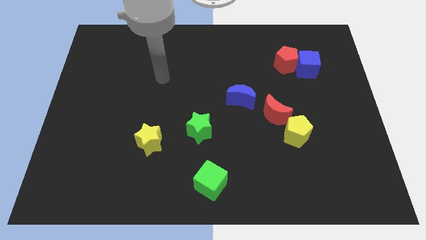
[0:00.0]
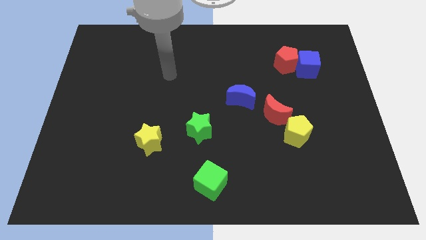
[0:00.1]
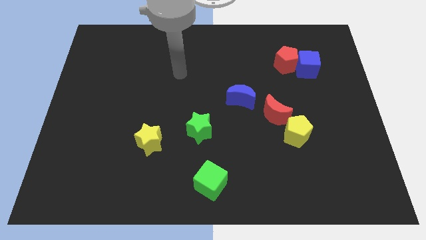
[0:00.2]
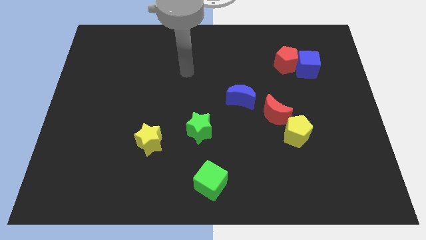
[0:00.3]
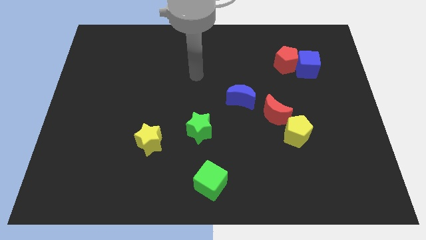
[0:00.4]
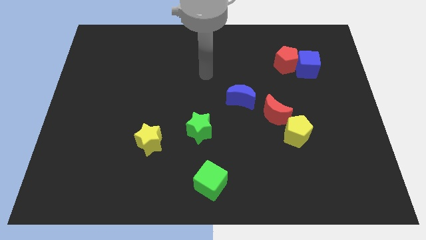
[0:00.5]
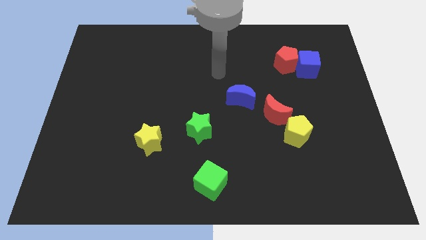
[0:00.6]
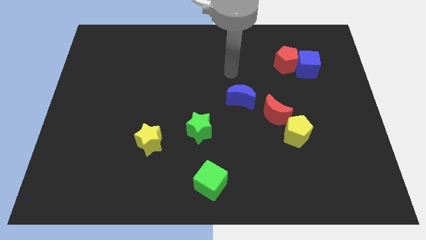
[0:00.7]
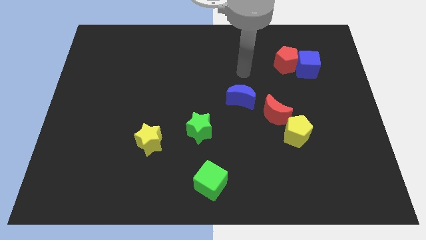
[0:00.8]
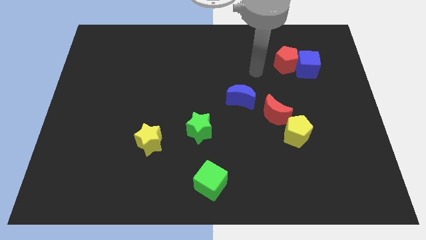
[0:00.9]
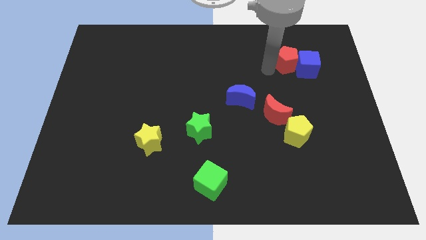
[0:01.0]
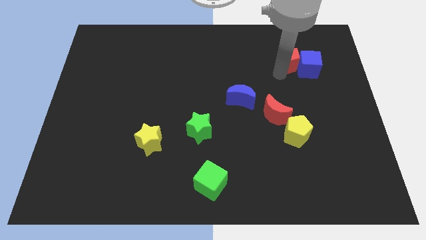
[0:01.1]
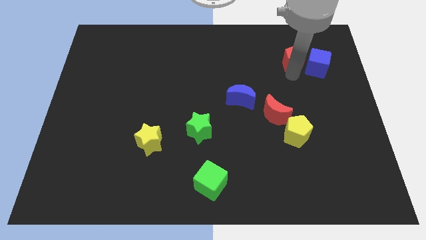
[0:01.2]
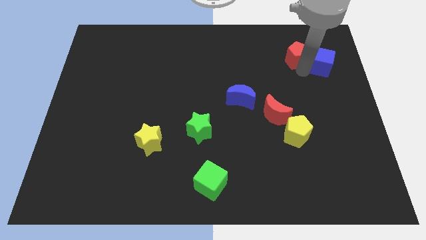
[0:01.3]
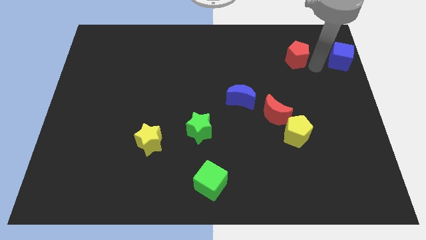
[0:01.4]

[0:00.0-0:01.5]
separate the red pentagon from the blue cube

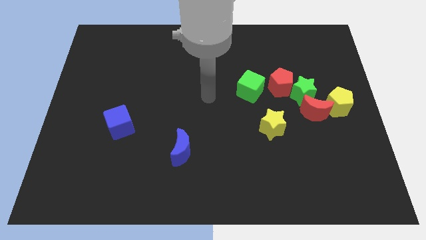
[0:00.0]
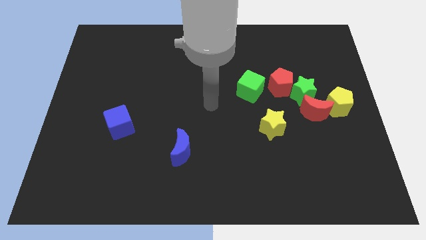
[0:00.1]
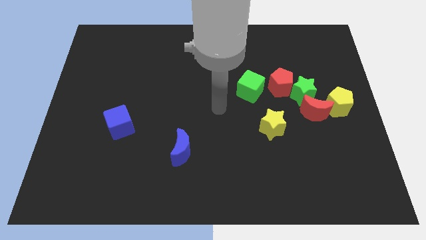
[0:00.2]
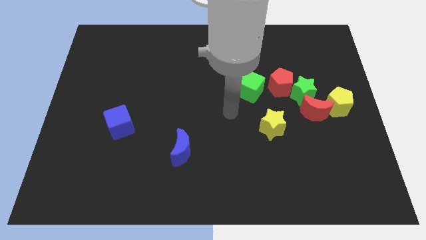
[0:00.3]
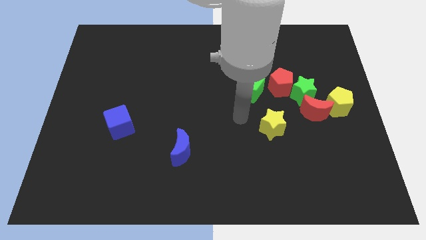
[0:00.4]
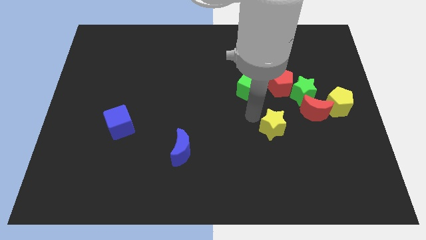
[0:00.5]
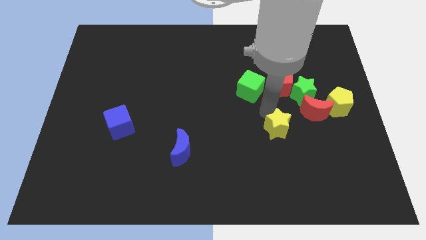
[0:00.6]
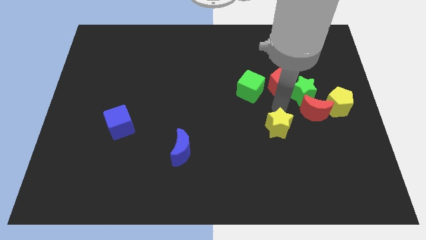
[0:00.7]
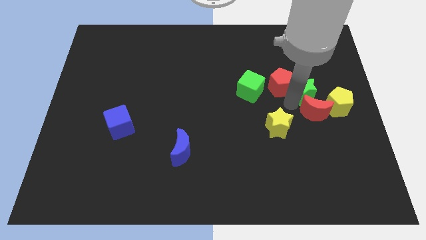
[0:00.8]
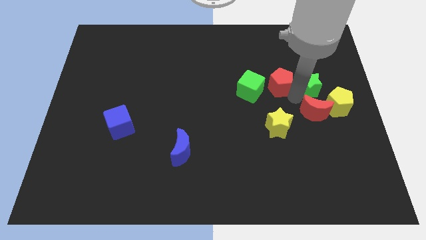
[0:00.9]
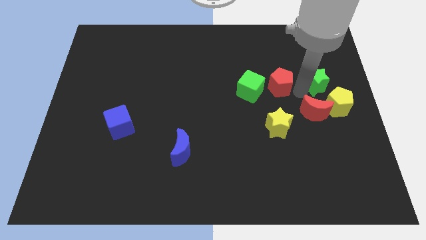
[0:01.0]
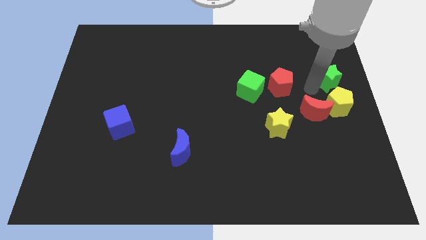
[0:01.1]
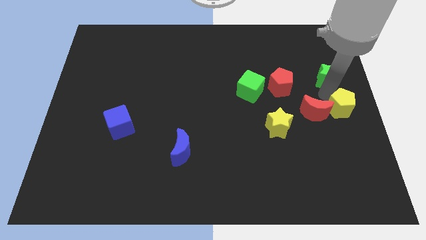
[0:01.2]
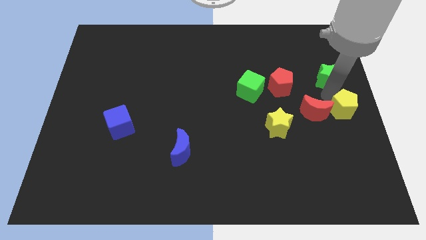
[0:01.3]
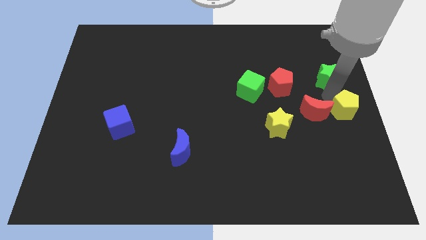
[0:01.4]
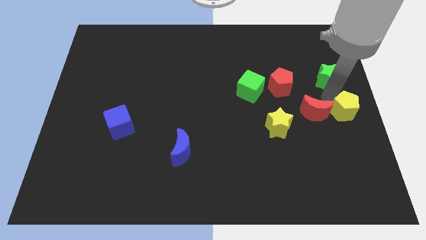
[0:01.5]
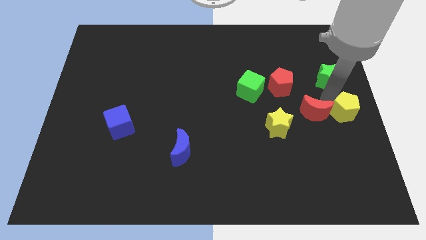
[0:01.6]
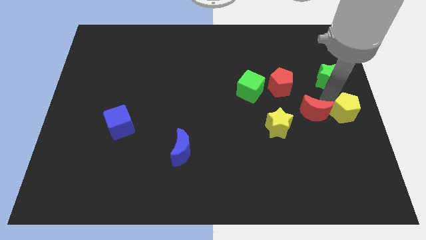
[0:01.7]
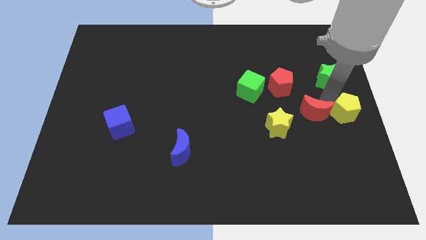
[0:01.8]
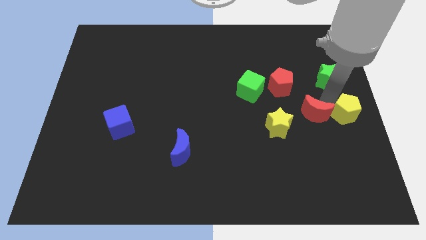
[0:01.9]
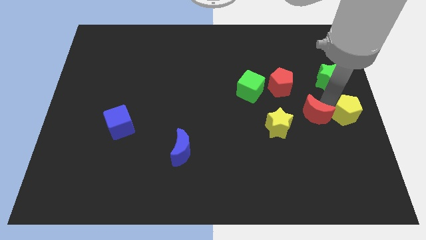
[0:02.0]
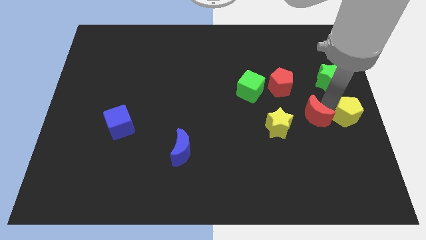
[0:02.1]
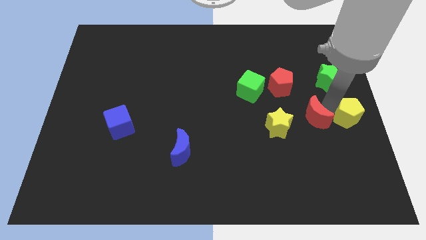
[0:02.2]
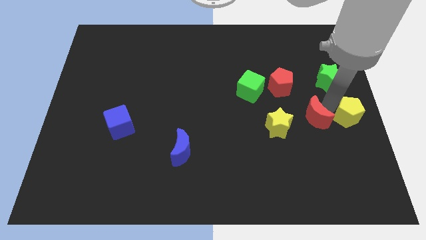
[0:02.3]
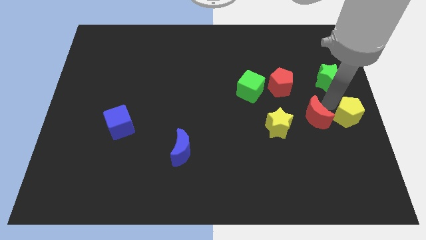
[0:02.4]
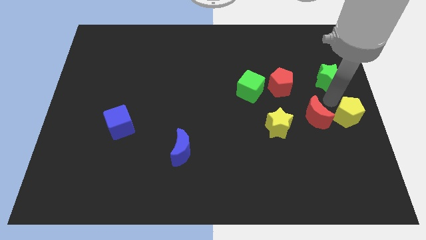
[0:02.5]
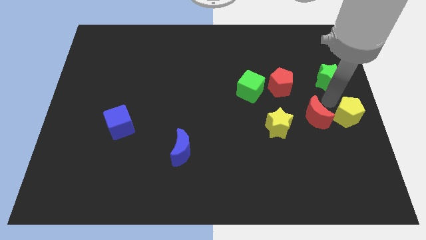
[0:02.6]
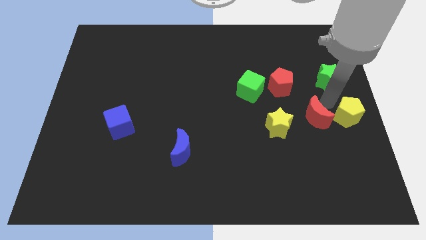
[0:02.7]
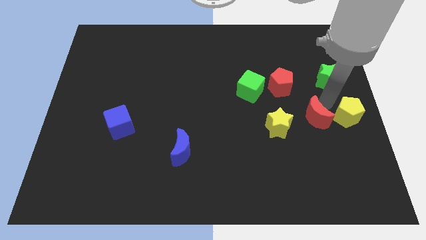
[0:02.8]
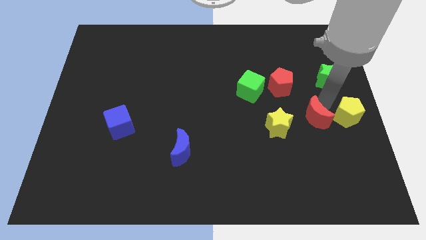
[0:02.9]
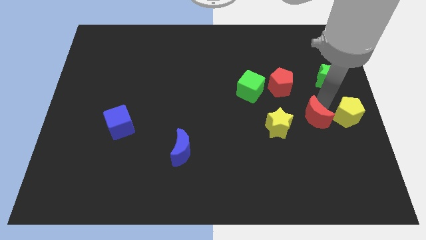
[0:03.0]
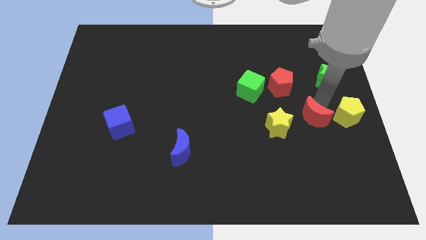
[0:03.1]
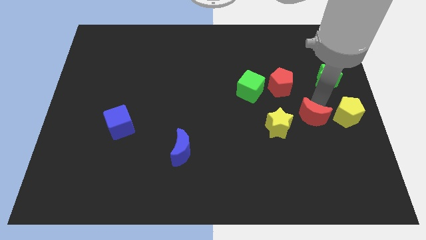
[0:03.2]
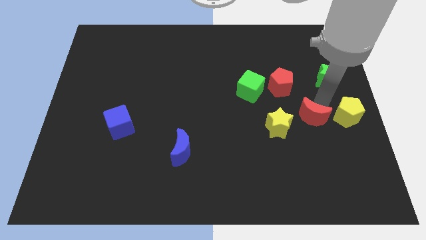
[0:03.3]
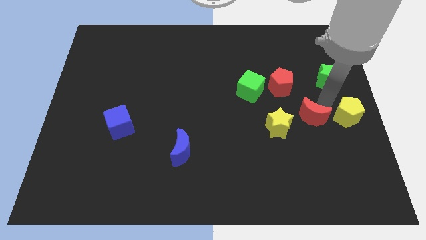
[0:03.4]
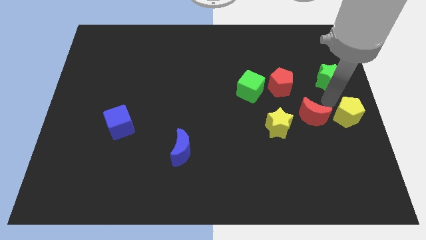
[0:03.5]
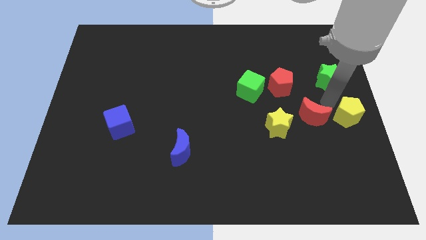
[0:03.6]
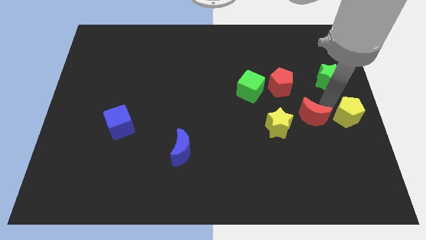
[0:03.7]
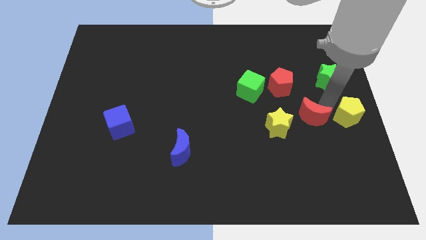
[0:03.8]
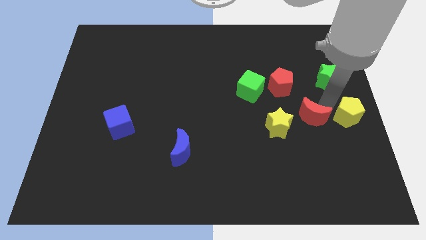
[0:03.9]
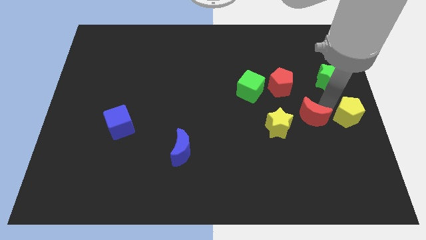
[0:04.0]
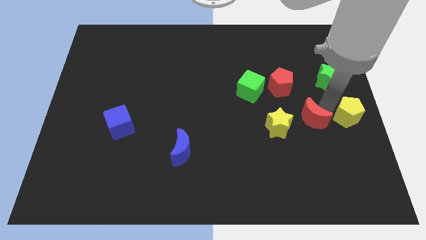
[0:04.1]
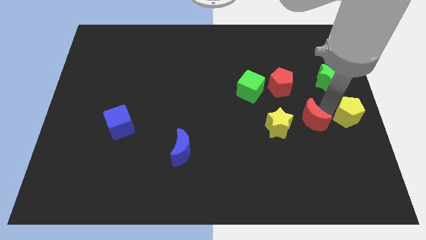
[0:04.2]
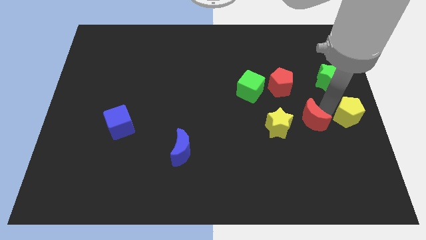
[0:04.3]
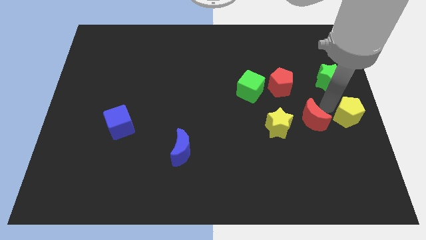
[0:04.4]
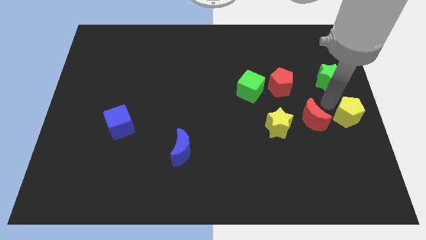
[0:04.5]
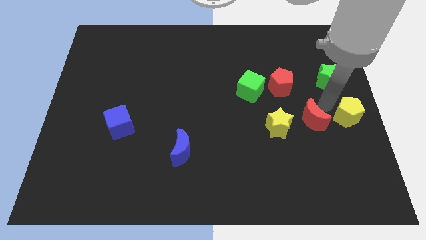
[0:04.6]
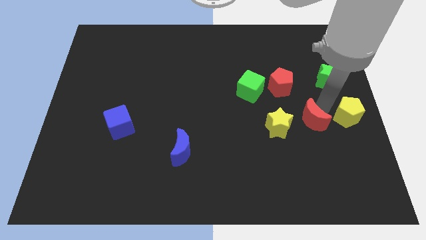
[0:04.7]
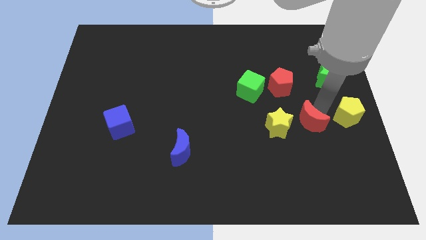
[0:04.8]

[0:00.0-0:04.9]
separate the red moon from the green star and yellow pentagon

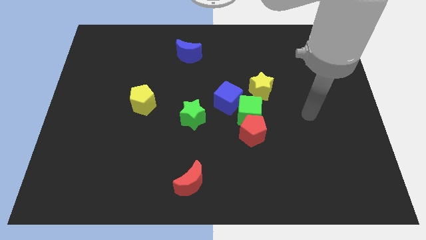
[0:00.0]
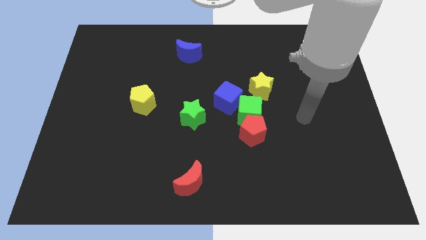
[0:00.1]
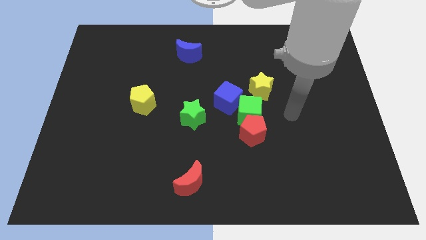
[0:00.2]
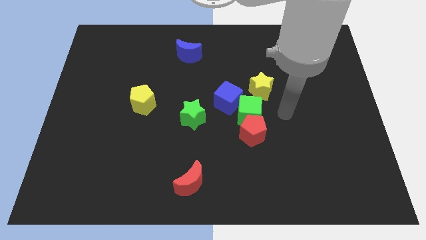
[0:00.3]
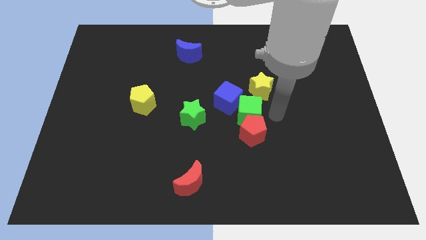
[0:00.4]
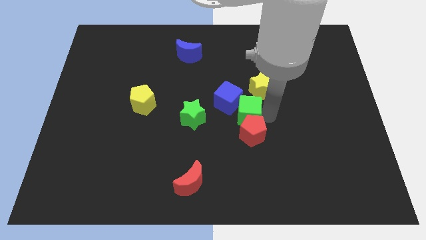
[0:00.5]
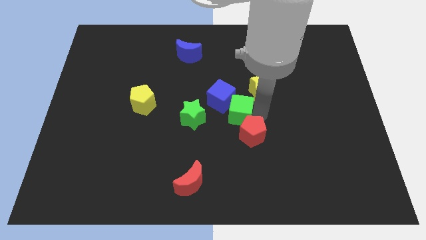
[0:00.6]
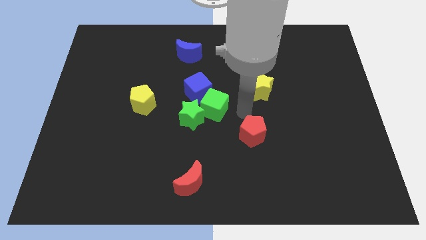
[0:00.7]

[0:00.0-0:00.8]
move the red pentagon away from the green cube

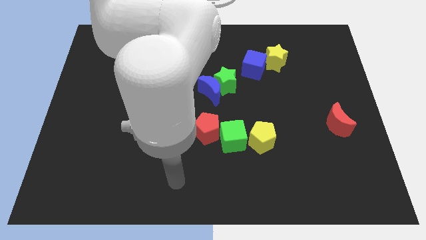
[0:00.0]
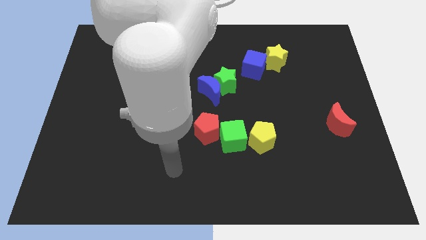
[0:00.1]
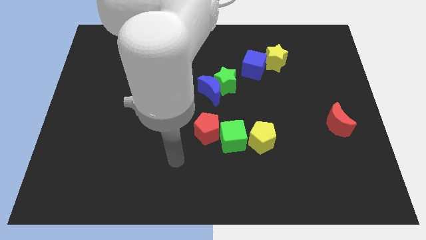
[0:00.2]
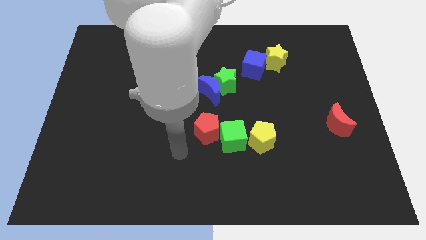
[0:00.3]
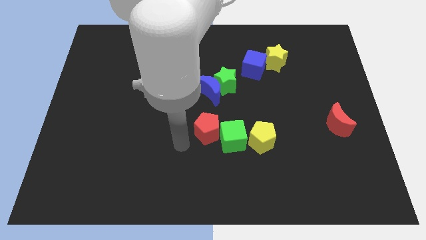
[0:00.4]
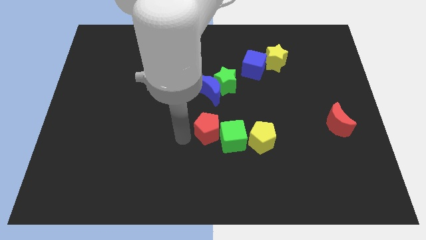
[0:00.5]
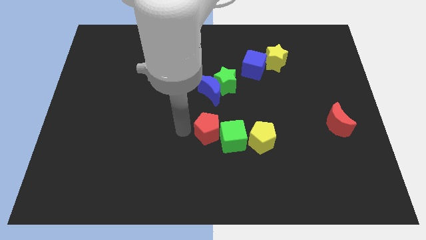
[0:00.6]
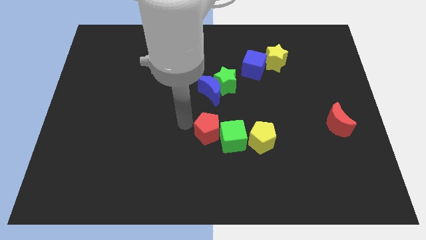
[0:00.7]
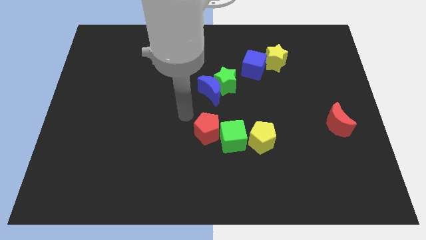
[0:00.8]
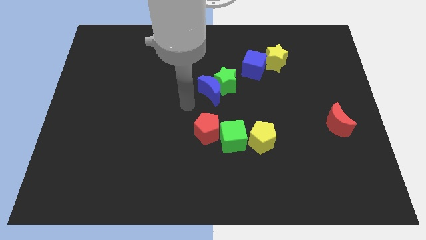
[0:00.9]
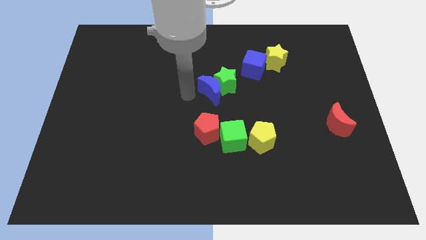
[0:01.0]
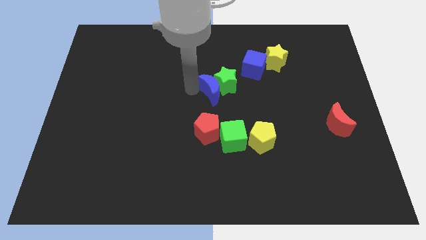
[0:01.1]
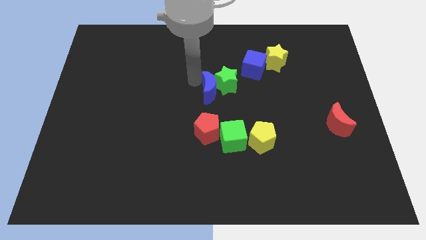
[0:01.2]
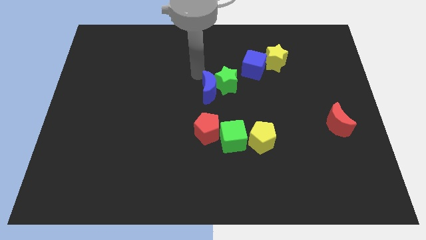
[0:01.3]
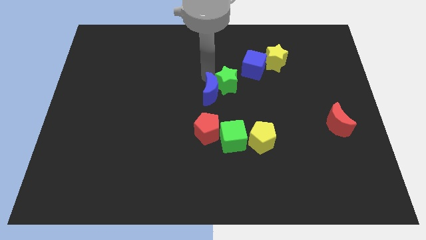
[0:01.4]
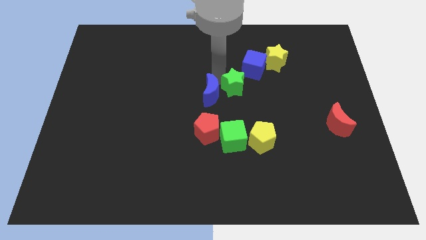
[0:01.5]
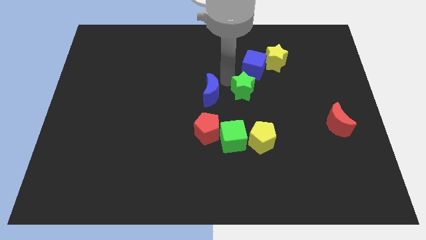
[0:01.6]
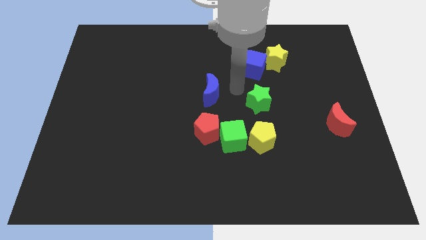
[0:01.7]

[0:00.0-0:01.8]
pull the blue moon apart from the green star

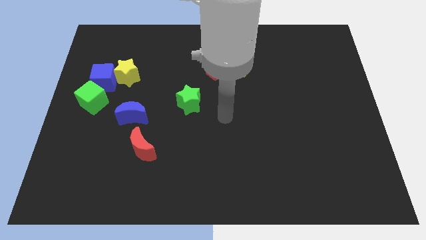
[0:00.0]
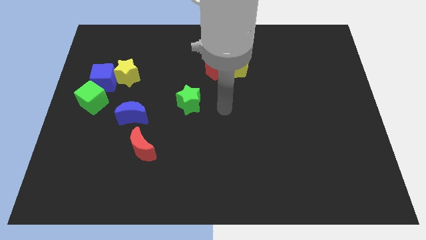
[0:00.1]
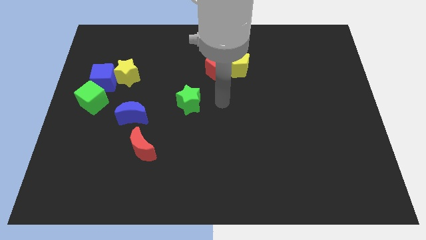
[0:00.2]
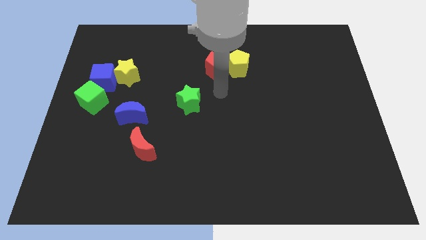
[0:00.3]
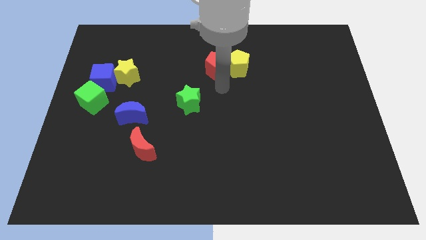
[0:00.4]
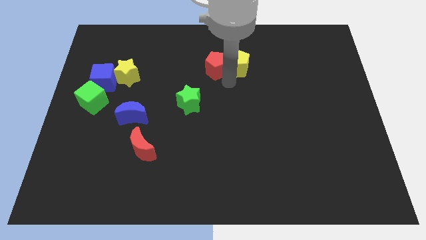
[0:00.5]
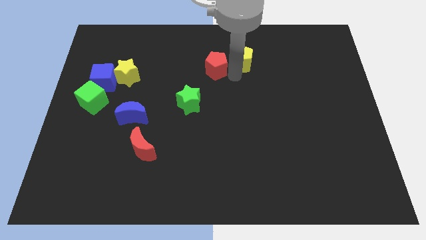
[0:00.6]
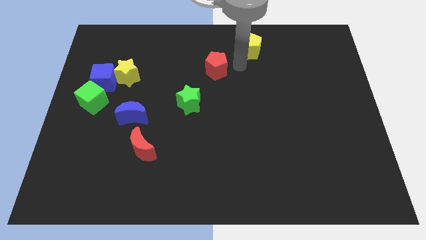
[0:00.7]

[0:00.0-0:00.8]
separate the red pentagon from the yellow pentagon
